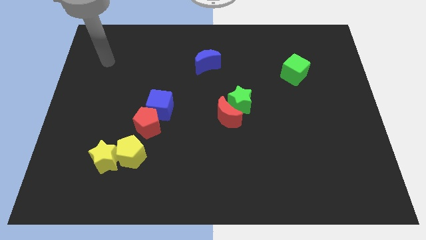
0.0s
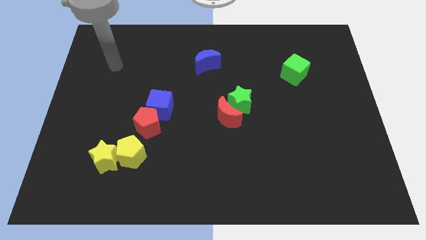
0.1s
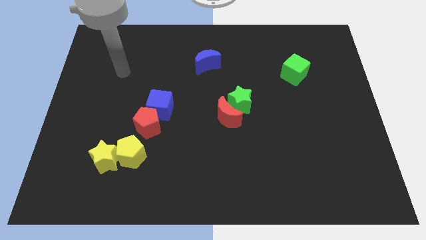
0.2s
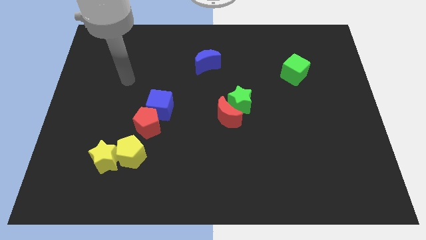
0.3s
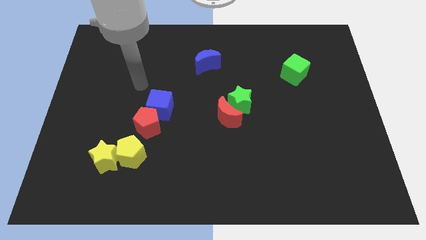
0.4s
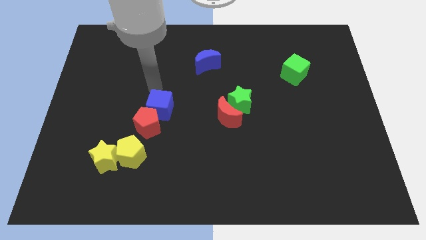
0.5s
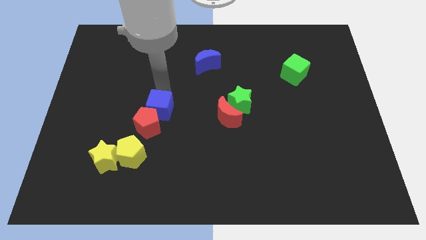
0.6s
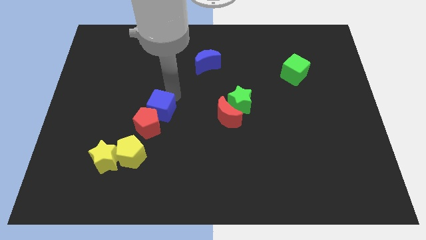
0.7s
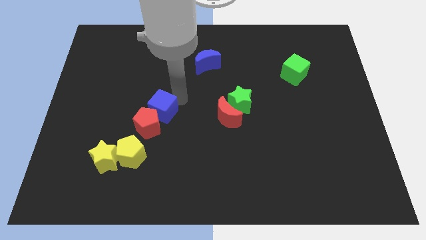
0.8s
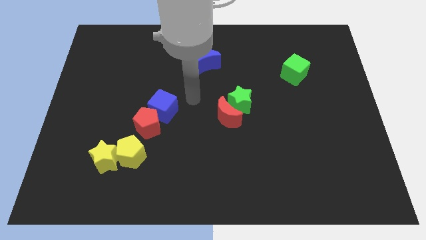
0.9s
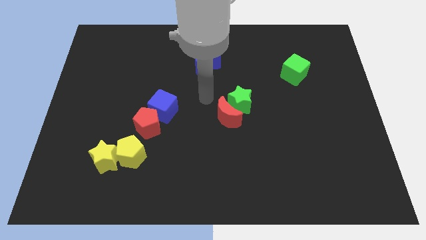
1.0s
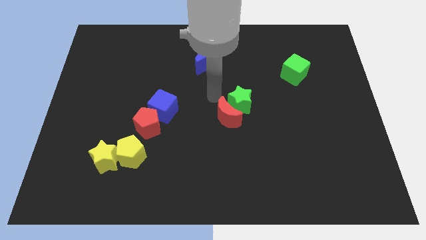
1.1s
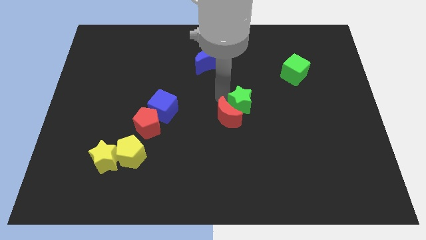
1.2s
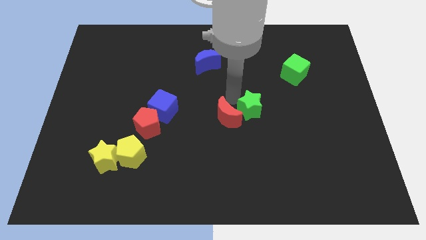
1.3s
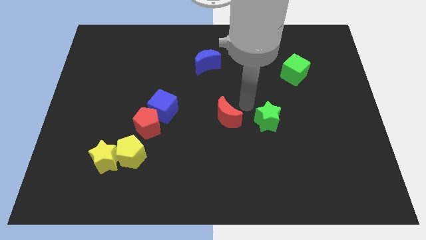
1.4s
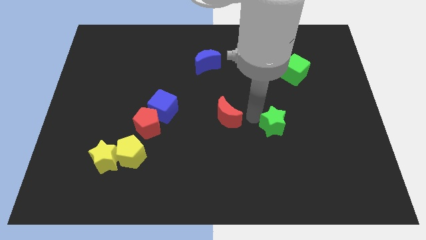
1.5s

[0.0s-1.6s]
pull the red moon apart from the green star

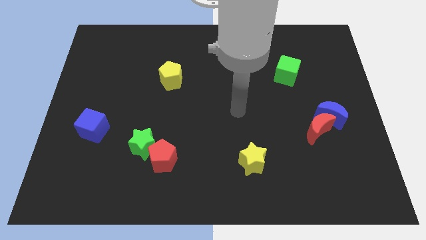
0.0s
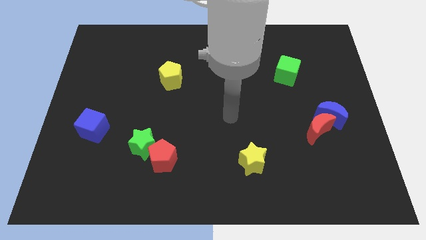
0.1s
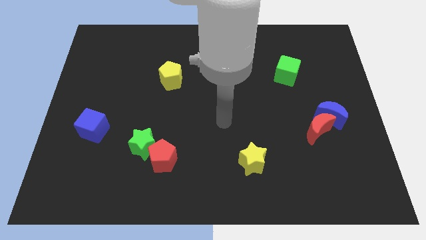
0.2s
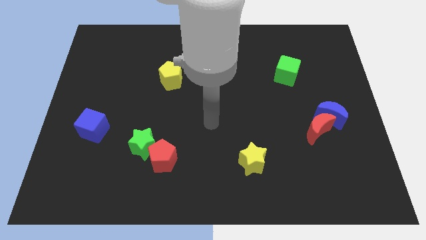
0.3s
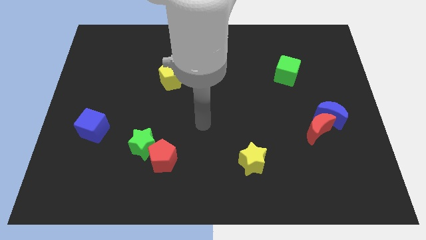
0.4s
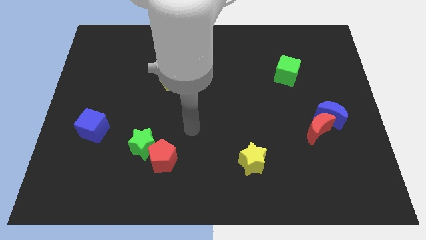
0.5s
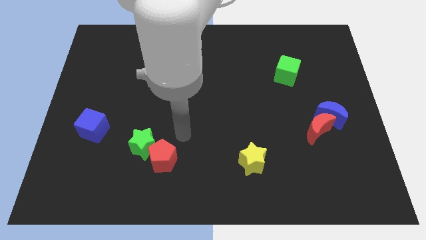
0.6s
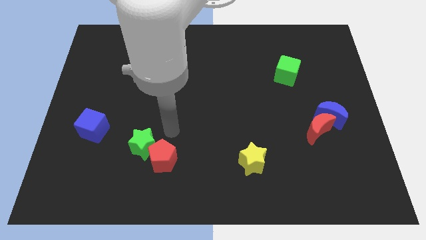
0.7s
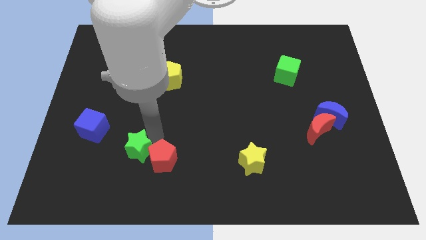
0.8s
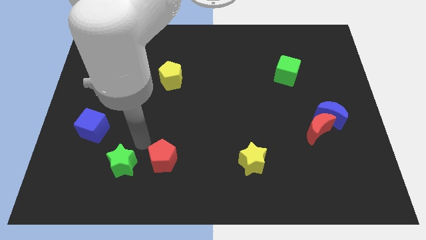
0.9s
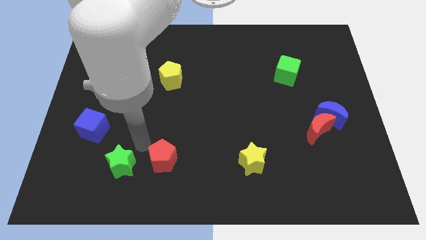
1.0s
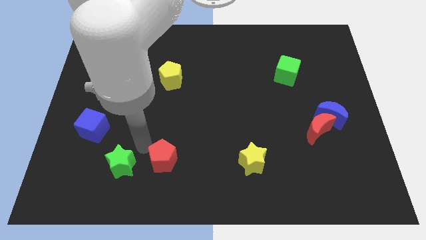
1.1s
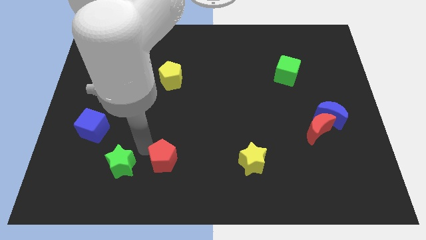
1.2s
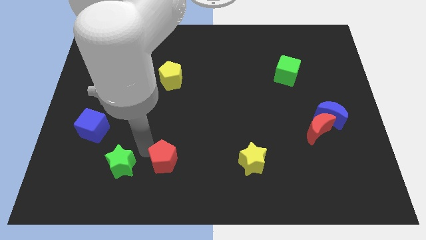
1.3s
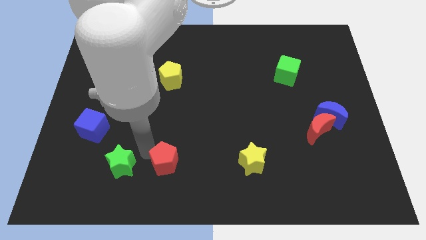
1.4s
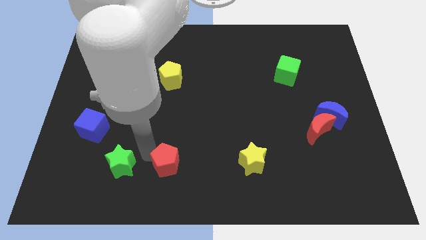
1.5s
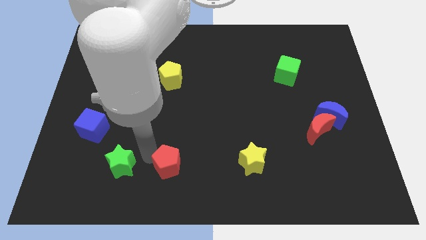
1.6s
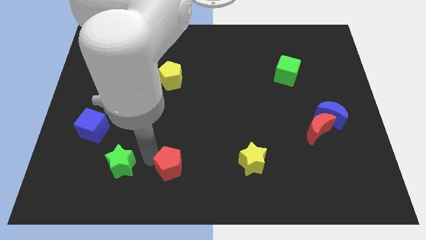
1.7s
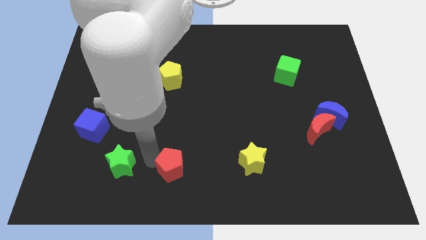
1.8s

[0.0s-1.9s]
separate the red pentagon from the green star

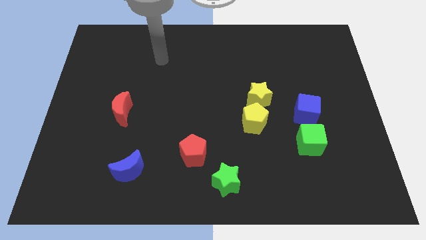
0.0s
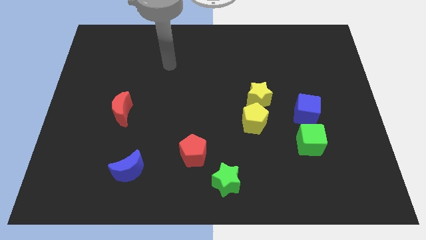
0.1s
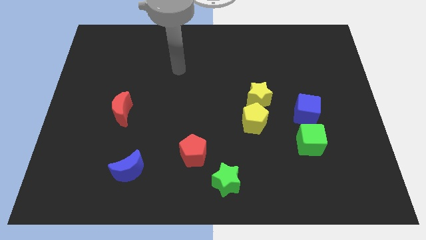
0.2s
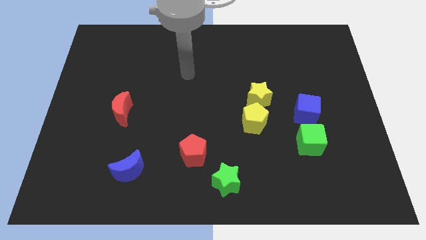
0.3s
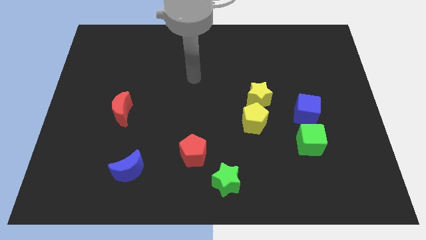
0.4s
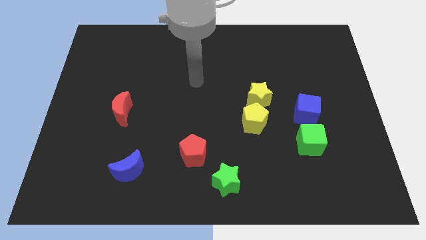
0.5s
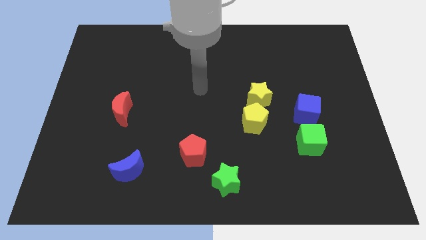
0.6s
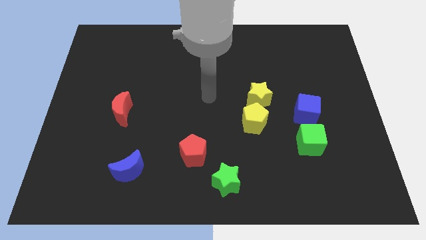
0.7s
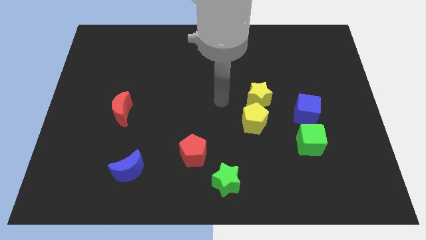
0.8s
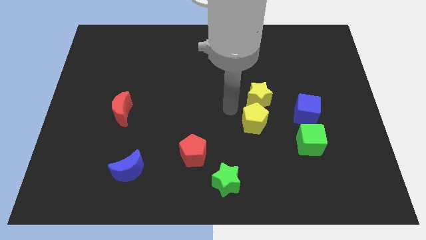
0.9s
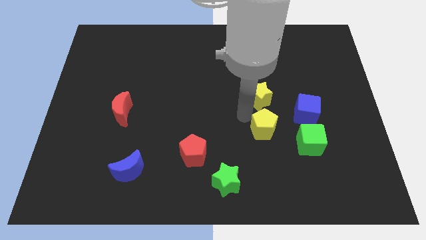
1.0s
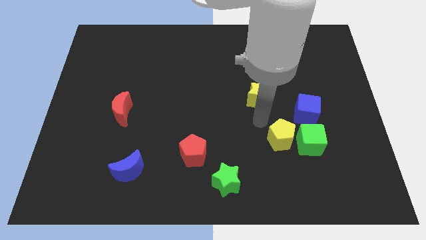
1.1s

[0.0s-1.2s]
separate the yellow star from the yellow pentagon

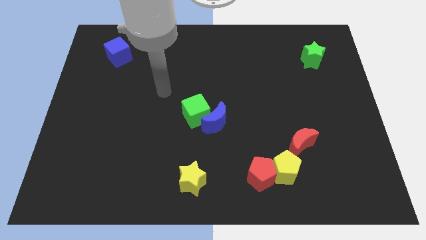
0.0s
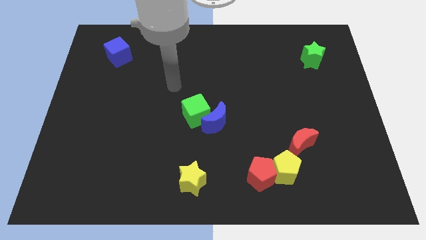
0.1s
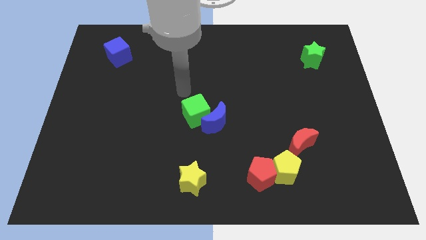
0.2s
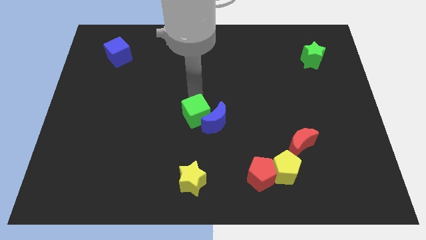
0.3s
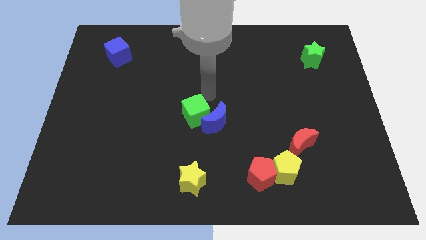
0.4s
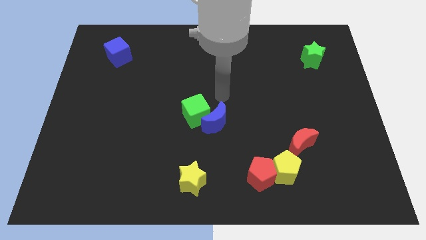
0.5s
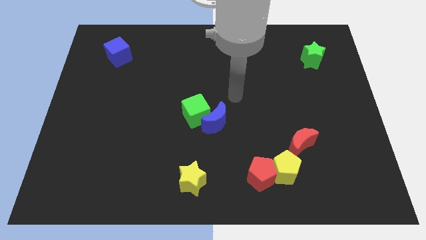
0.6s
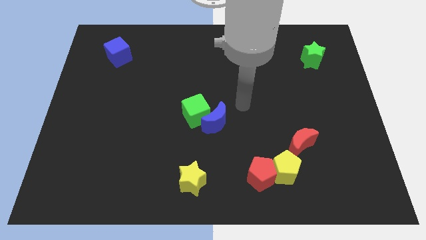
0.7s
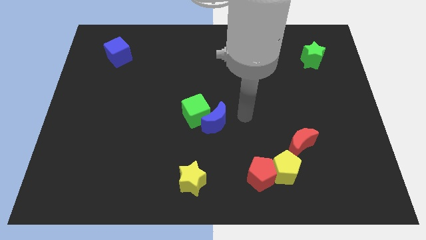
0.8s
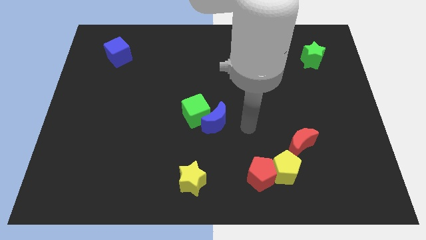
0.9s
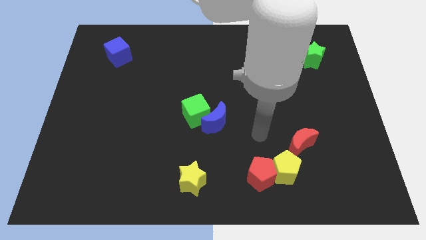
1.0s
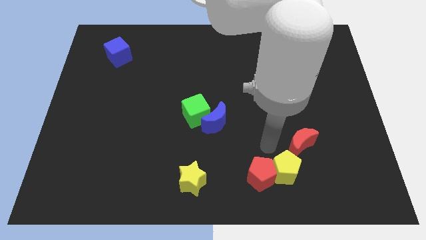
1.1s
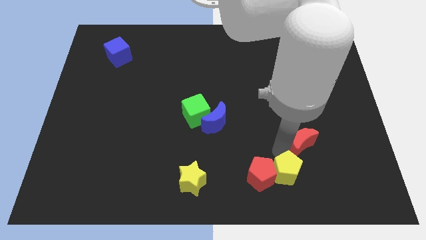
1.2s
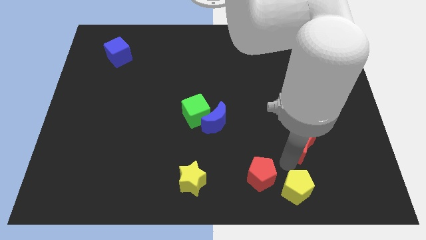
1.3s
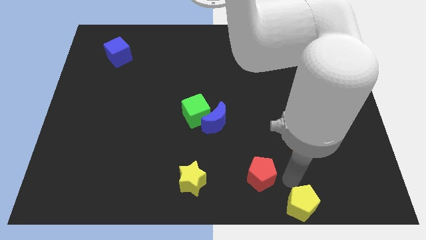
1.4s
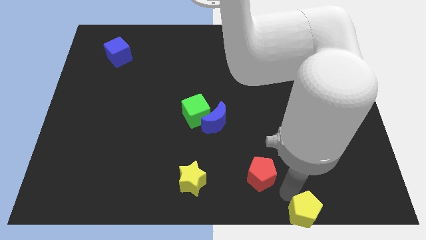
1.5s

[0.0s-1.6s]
move the red pentagon away from the yellow pentagon

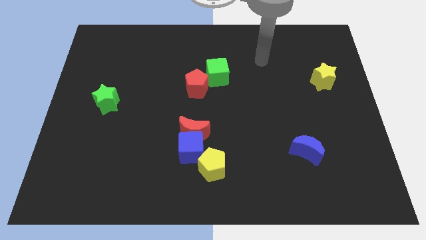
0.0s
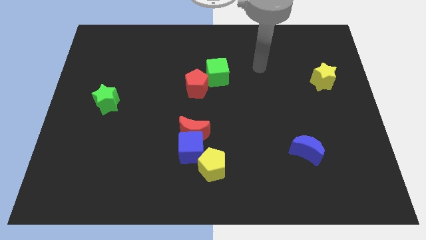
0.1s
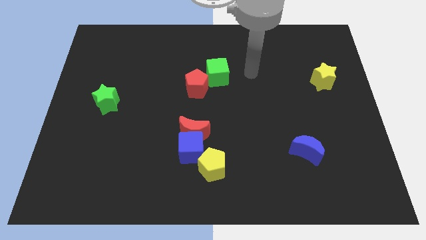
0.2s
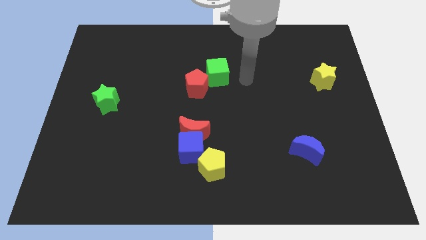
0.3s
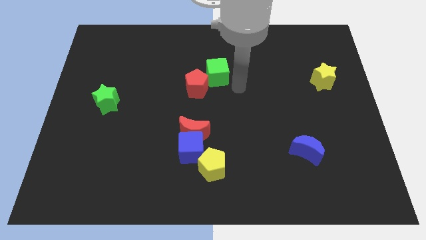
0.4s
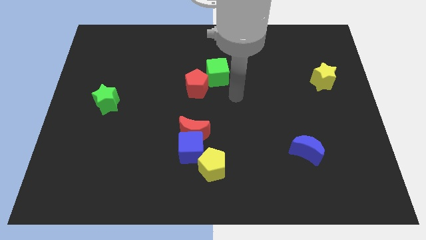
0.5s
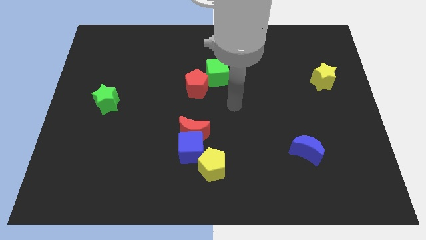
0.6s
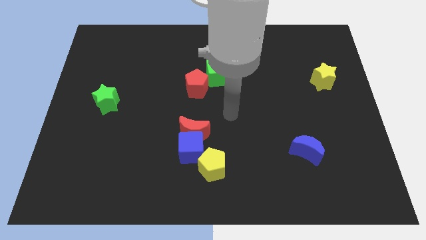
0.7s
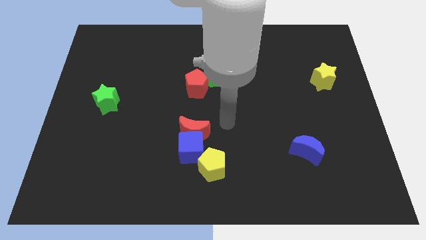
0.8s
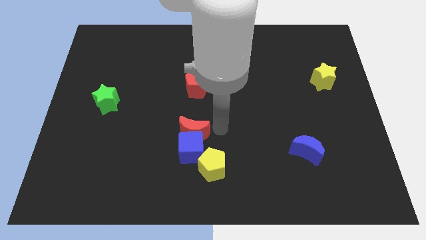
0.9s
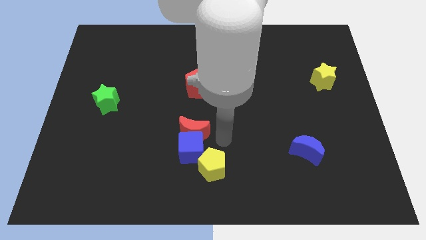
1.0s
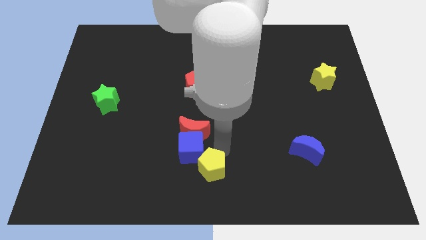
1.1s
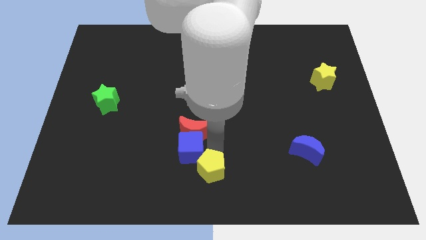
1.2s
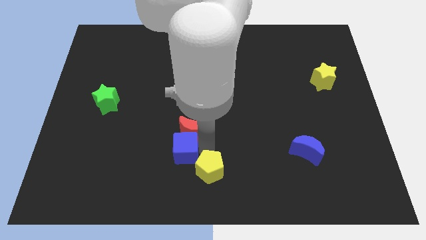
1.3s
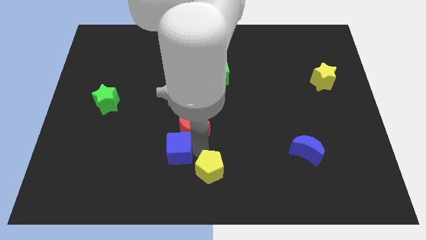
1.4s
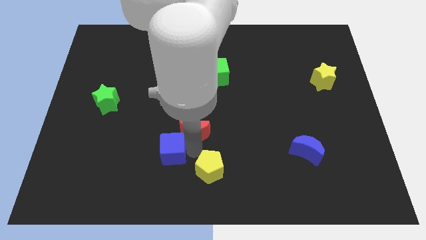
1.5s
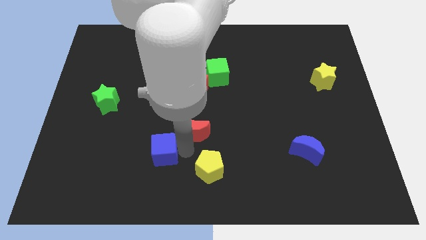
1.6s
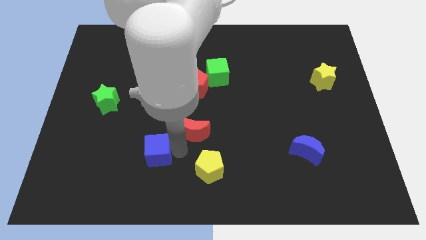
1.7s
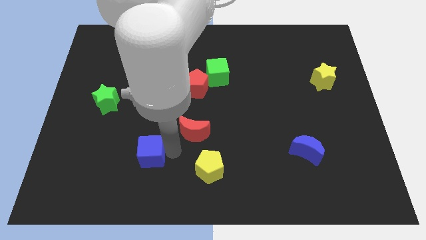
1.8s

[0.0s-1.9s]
separate the blue cube from the red moon and yellow pentagon

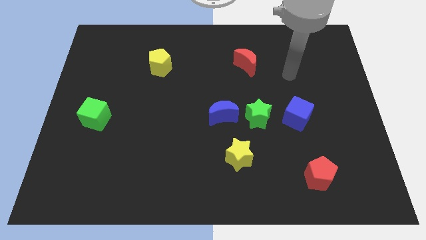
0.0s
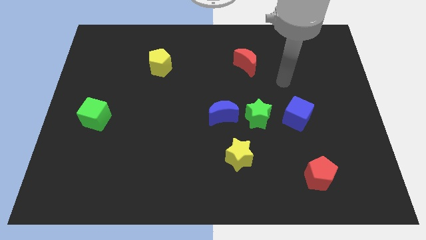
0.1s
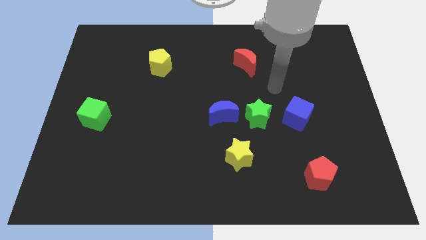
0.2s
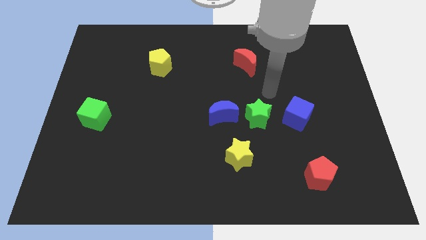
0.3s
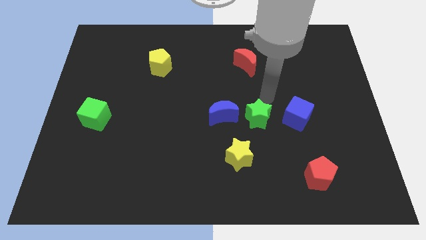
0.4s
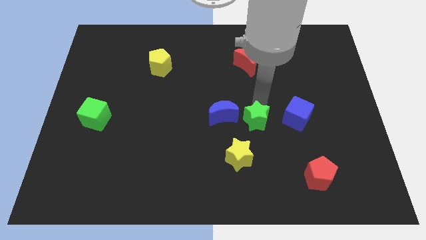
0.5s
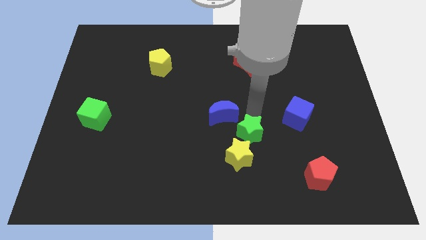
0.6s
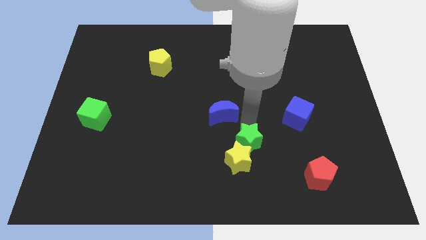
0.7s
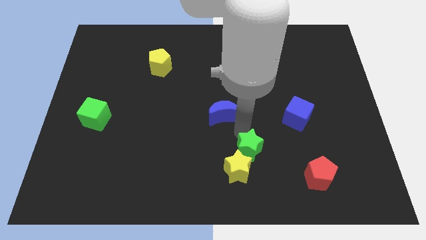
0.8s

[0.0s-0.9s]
move the blue moon away from the green star

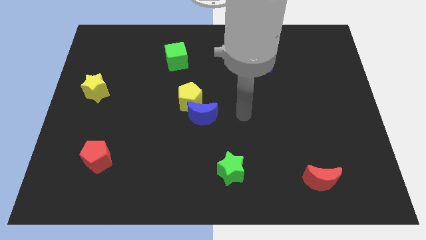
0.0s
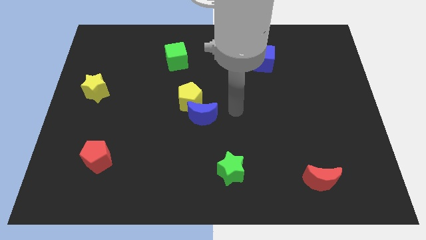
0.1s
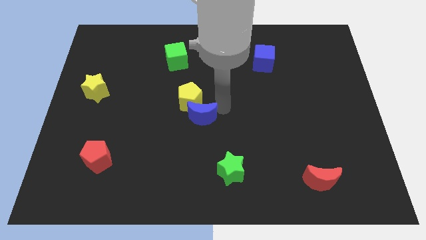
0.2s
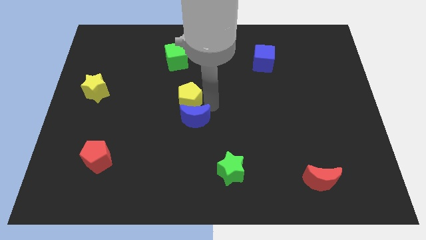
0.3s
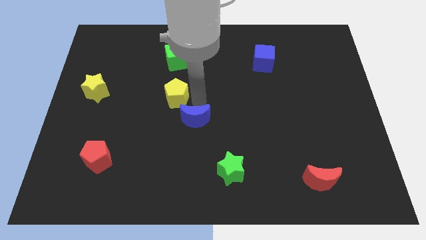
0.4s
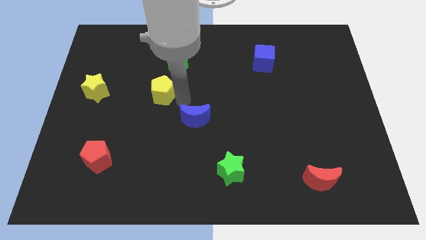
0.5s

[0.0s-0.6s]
separate the blue moon from the yellow pentagon
